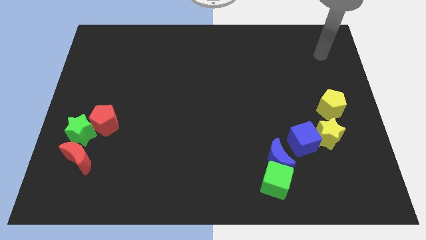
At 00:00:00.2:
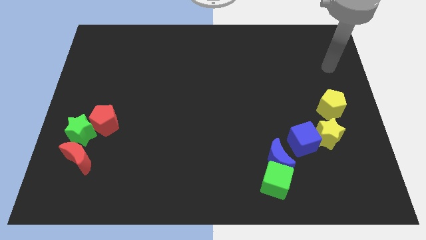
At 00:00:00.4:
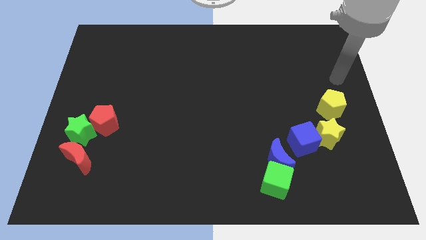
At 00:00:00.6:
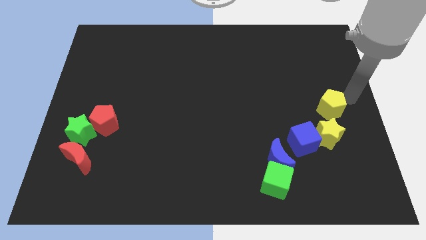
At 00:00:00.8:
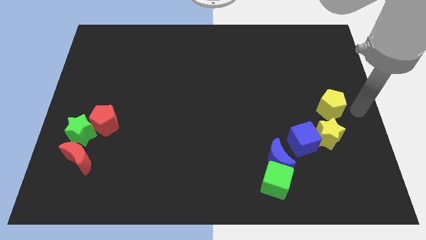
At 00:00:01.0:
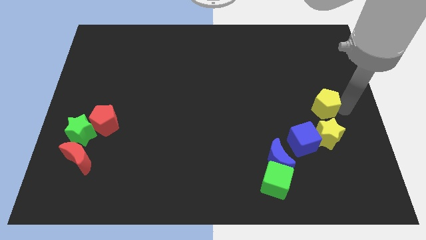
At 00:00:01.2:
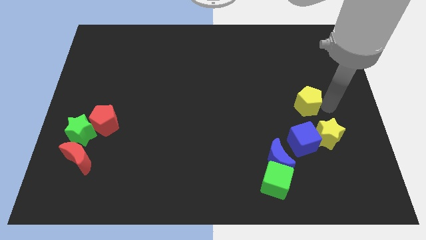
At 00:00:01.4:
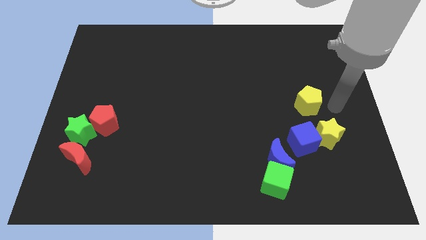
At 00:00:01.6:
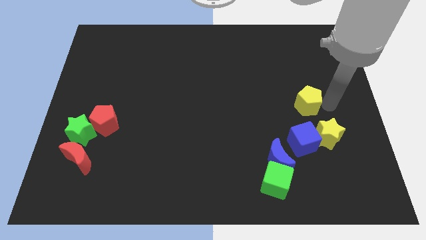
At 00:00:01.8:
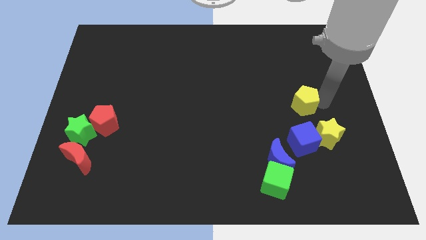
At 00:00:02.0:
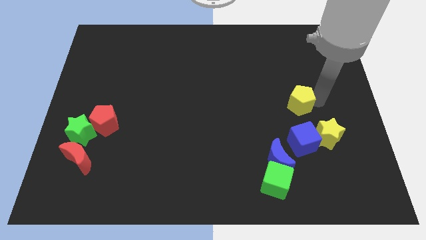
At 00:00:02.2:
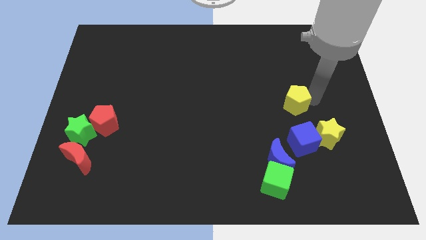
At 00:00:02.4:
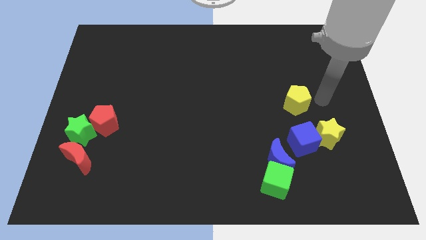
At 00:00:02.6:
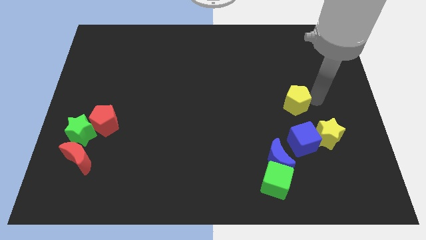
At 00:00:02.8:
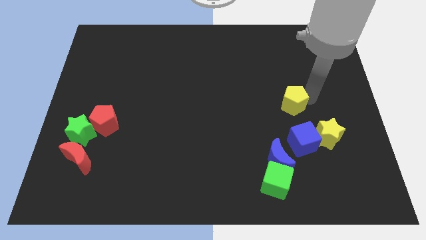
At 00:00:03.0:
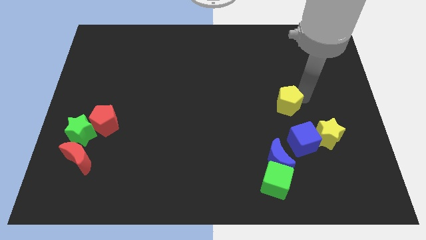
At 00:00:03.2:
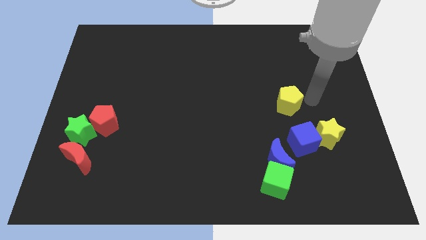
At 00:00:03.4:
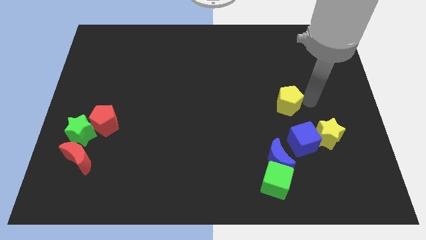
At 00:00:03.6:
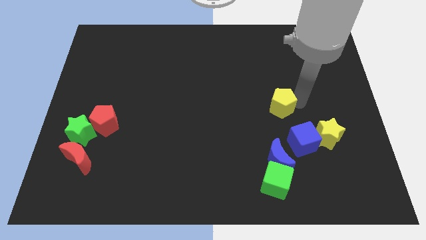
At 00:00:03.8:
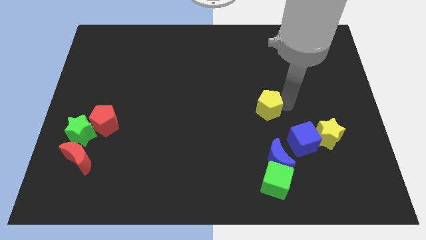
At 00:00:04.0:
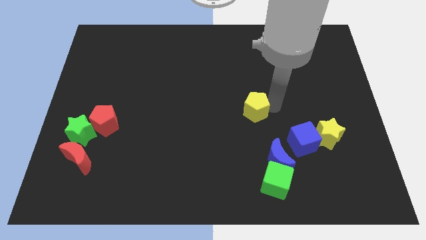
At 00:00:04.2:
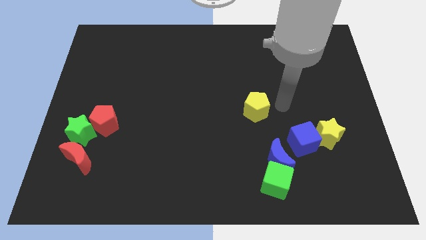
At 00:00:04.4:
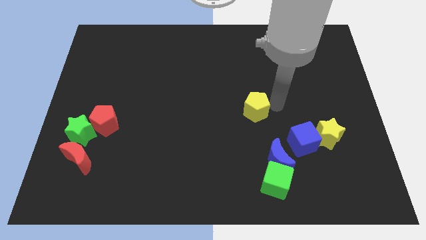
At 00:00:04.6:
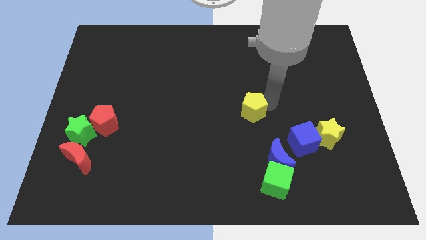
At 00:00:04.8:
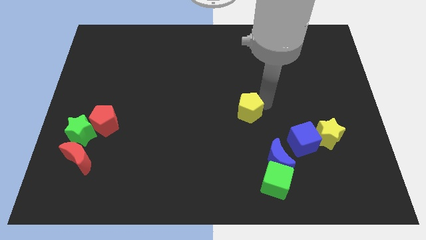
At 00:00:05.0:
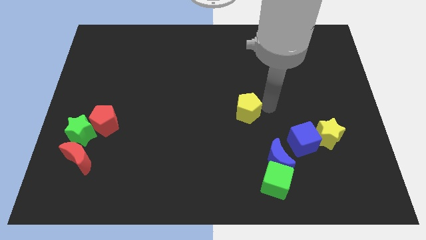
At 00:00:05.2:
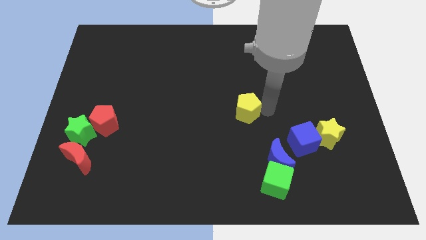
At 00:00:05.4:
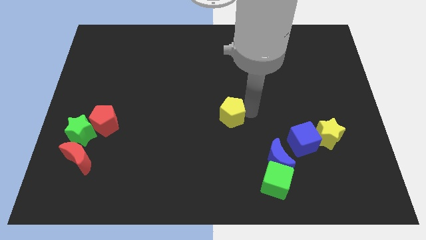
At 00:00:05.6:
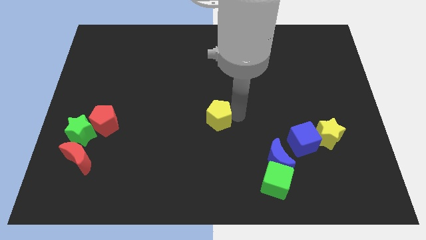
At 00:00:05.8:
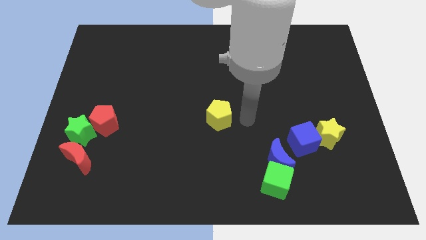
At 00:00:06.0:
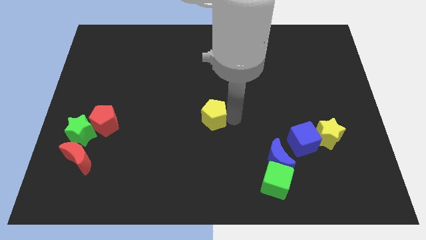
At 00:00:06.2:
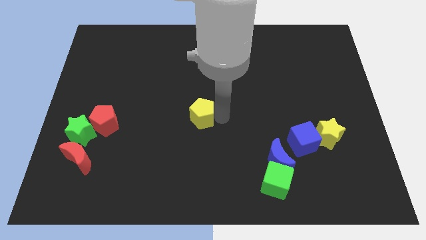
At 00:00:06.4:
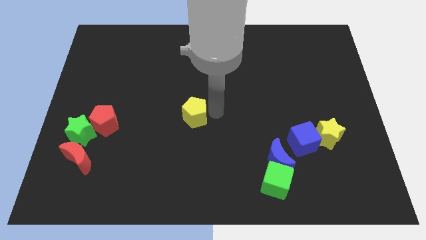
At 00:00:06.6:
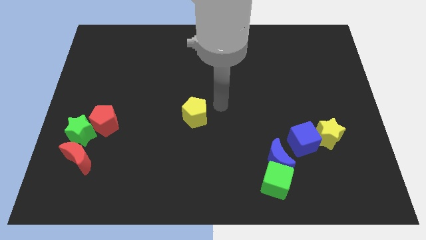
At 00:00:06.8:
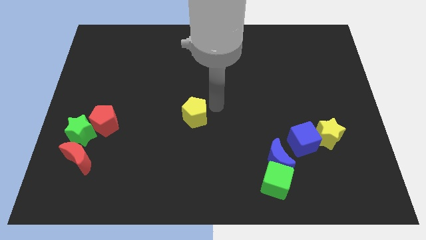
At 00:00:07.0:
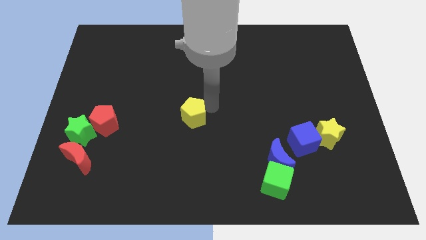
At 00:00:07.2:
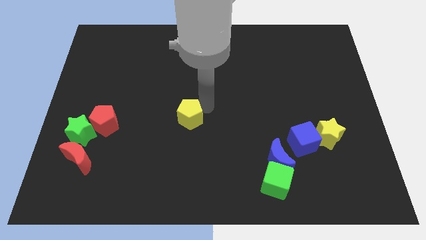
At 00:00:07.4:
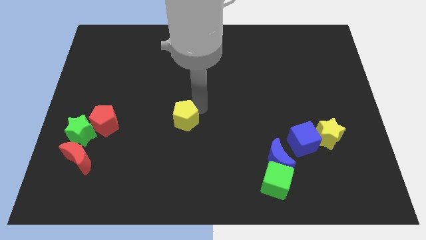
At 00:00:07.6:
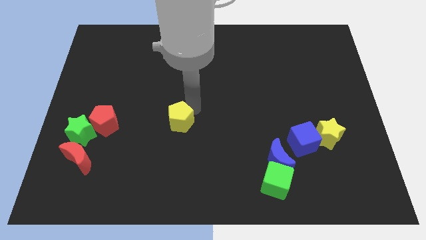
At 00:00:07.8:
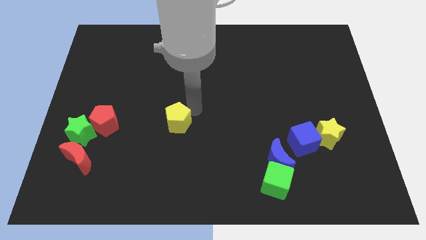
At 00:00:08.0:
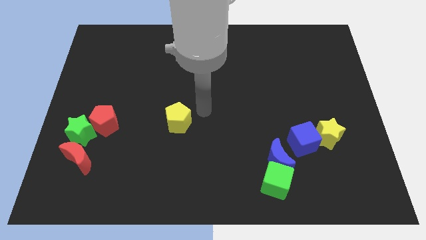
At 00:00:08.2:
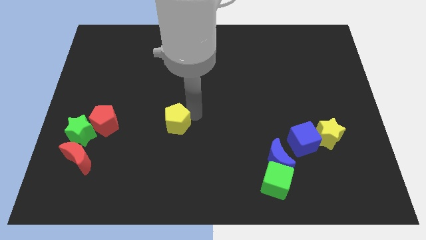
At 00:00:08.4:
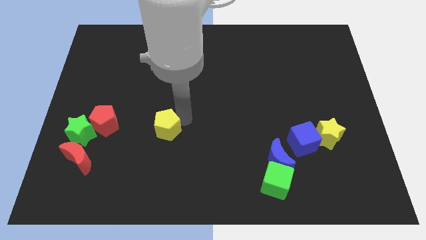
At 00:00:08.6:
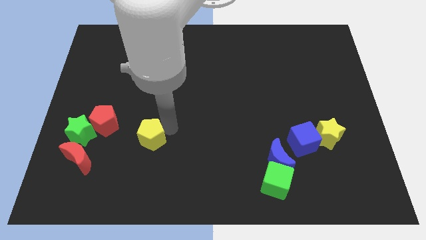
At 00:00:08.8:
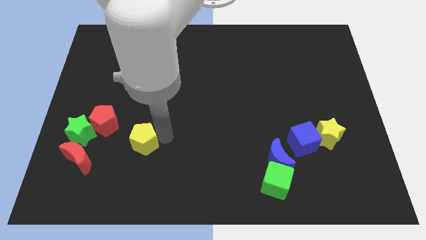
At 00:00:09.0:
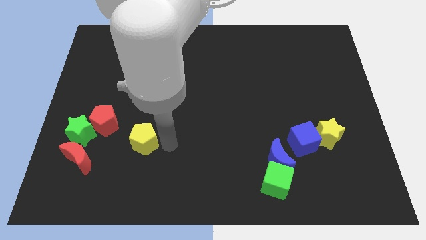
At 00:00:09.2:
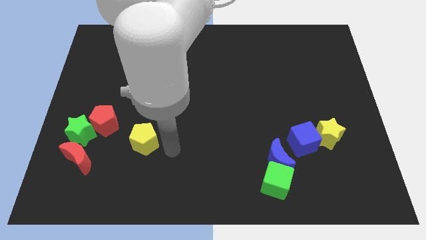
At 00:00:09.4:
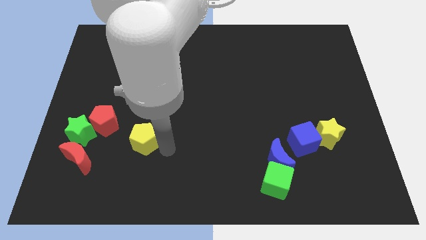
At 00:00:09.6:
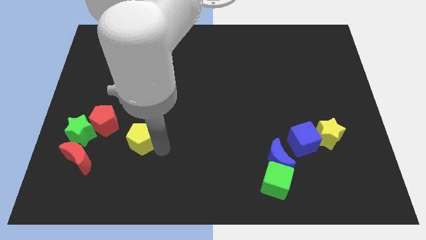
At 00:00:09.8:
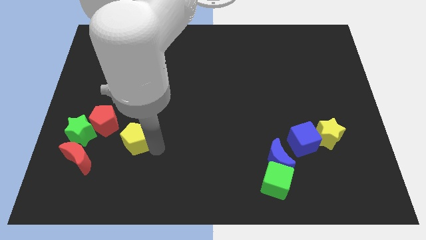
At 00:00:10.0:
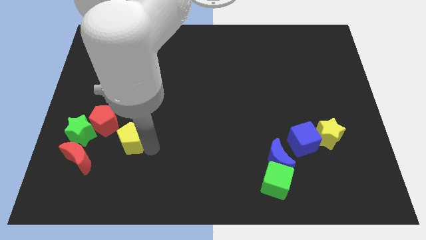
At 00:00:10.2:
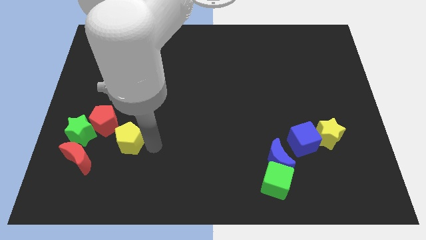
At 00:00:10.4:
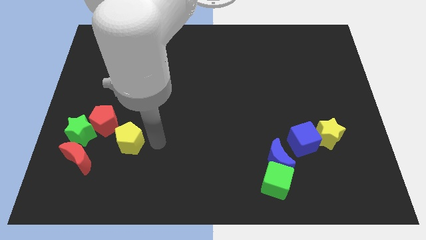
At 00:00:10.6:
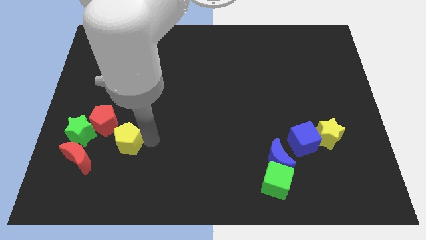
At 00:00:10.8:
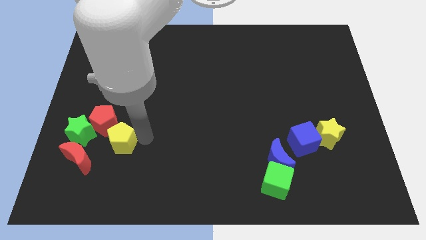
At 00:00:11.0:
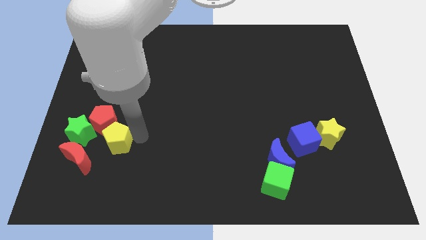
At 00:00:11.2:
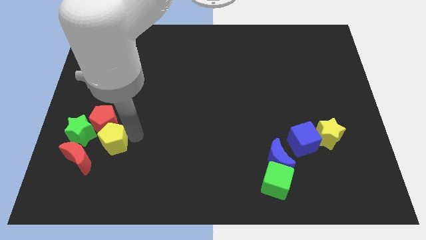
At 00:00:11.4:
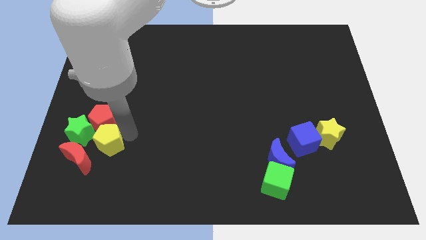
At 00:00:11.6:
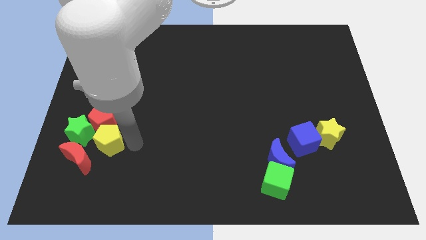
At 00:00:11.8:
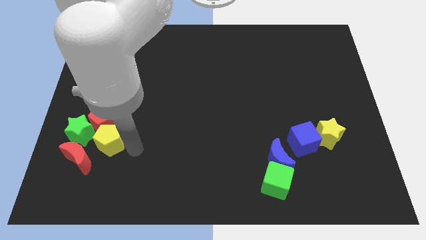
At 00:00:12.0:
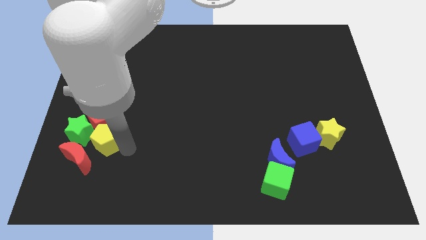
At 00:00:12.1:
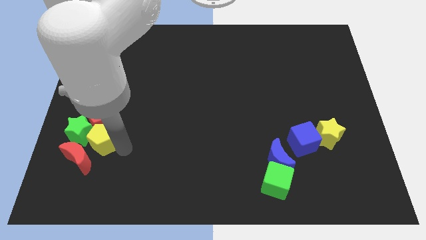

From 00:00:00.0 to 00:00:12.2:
push the yellow pentagon next to the green star

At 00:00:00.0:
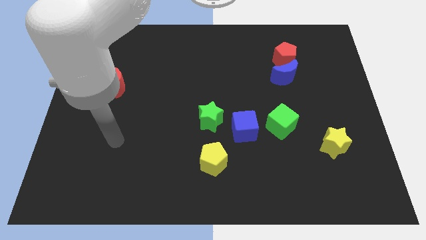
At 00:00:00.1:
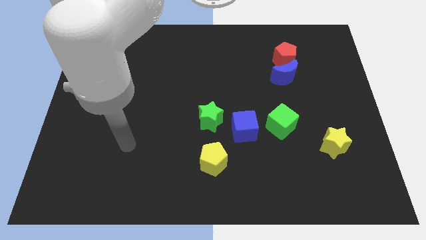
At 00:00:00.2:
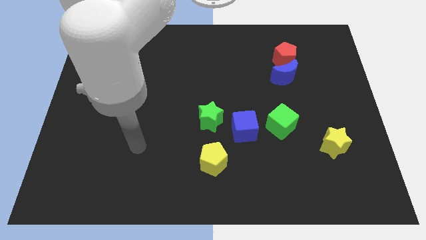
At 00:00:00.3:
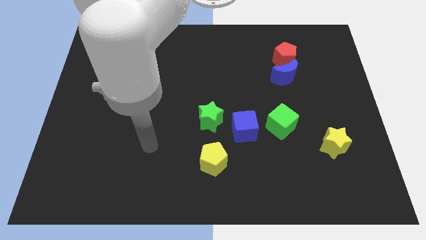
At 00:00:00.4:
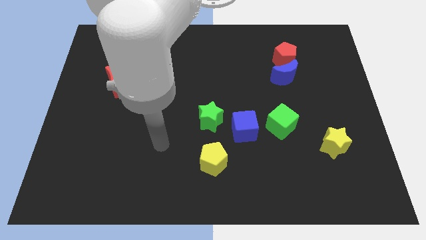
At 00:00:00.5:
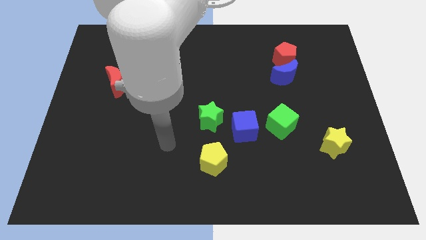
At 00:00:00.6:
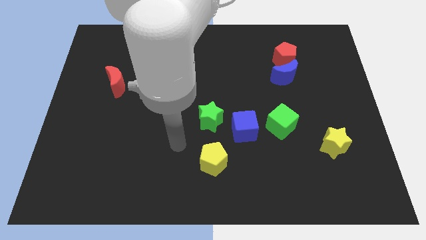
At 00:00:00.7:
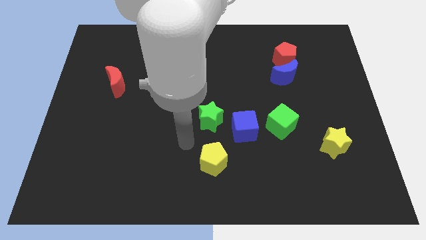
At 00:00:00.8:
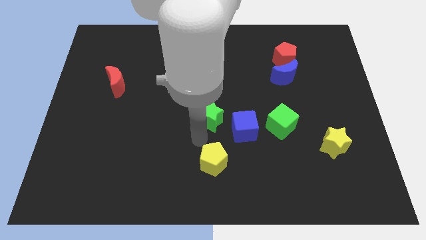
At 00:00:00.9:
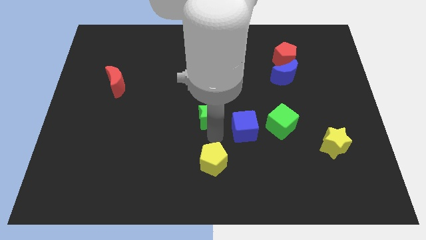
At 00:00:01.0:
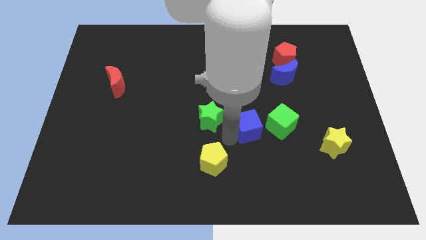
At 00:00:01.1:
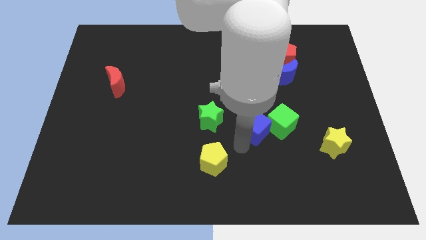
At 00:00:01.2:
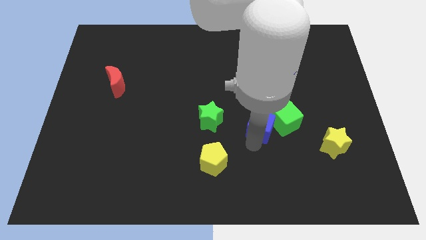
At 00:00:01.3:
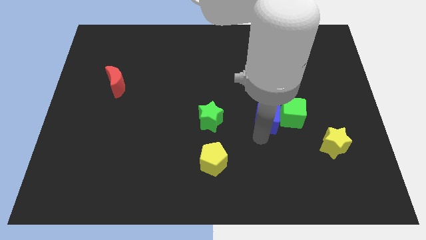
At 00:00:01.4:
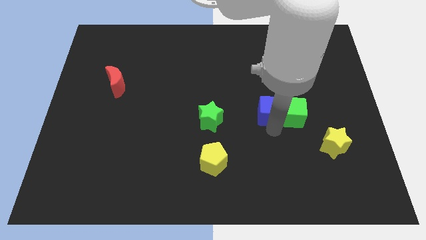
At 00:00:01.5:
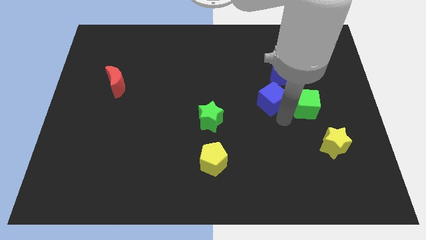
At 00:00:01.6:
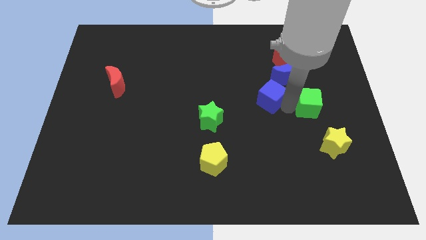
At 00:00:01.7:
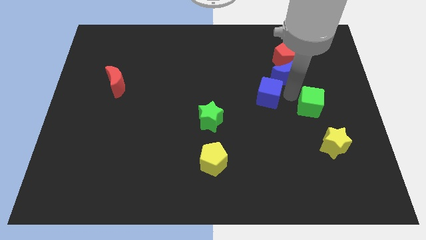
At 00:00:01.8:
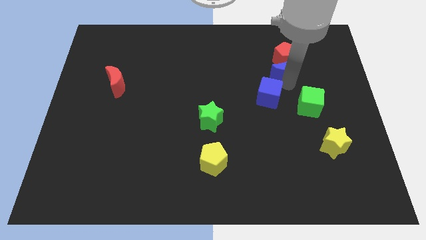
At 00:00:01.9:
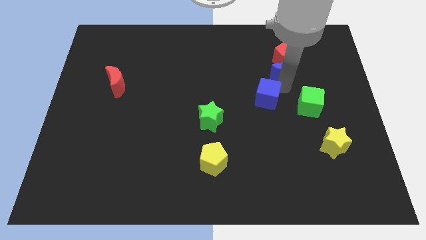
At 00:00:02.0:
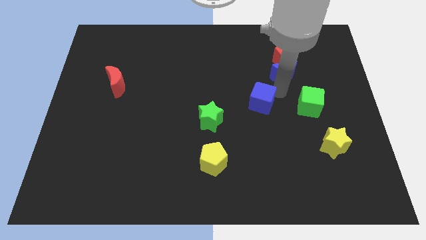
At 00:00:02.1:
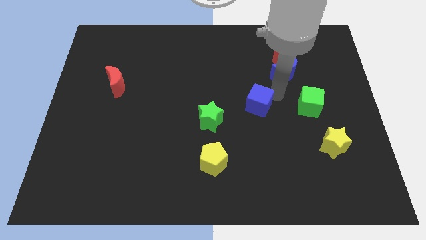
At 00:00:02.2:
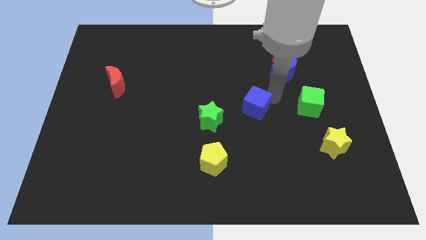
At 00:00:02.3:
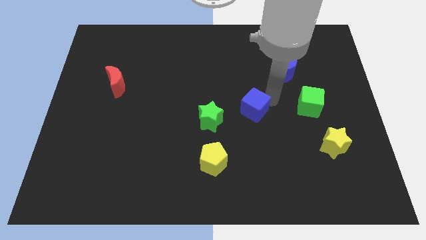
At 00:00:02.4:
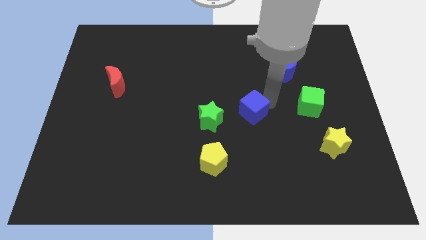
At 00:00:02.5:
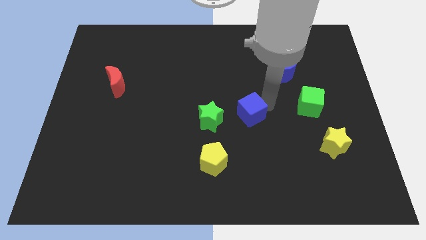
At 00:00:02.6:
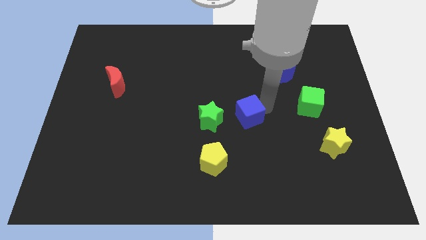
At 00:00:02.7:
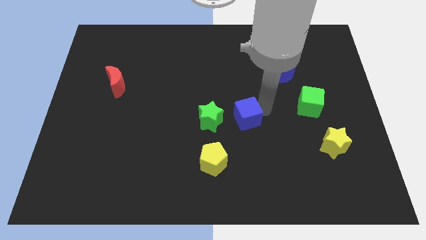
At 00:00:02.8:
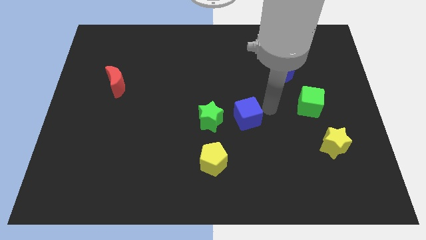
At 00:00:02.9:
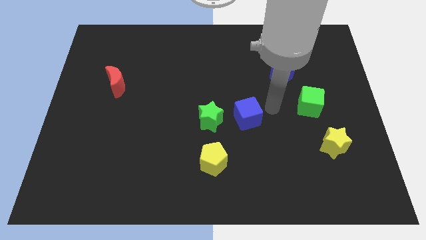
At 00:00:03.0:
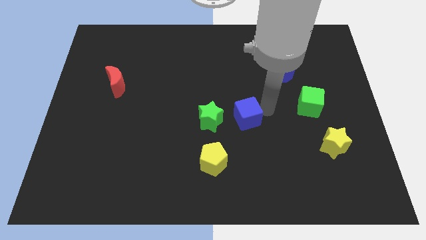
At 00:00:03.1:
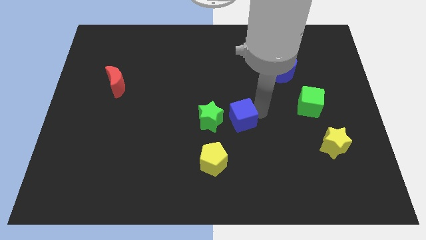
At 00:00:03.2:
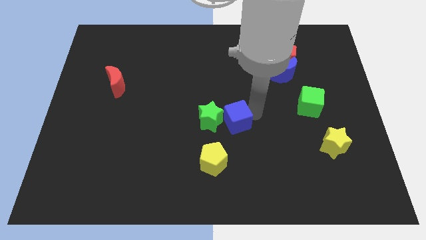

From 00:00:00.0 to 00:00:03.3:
slide the blue cube next to the green star
